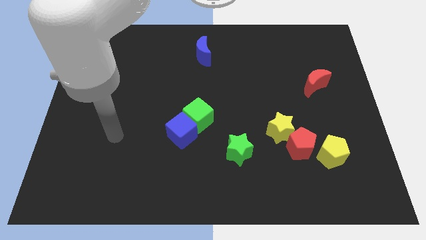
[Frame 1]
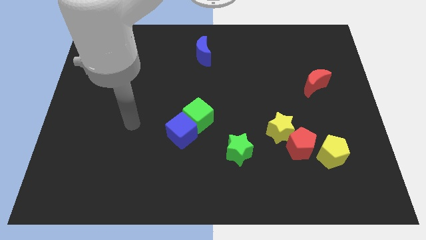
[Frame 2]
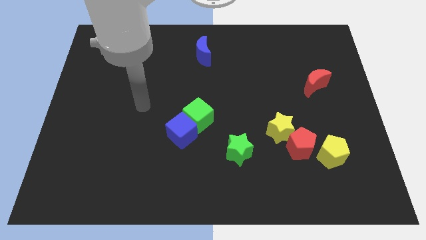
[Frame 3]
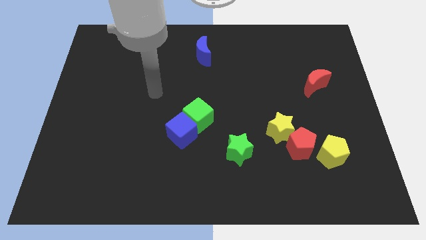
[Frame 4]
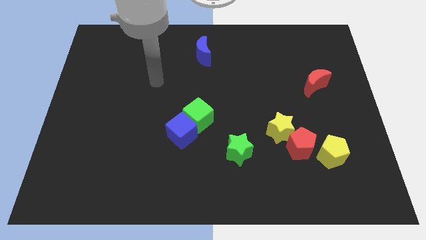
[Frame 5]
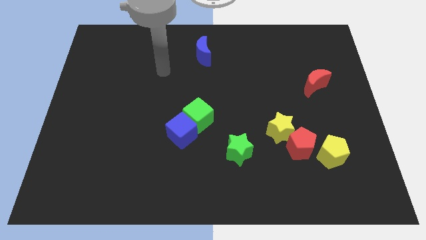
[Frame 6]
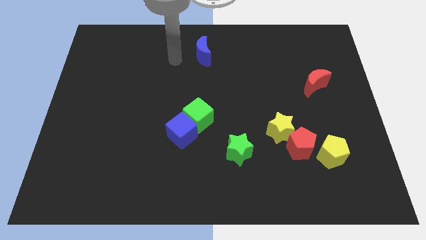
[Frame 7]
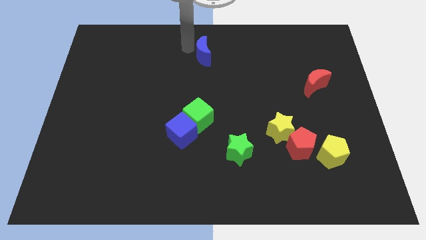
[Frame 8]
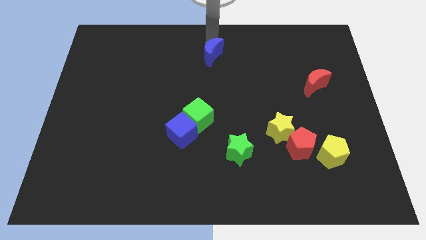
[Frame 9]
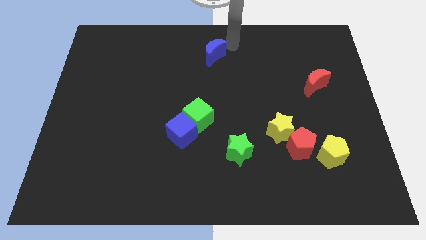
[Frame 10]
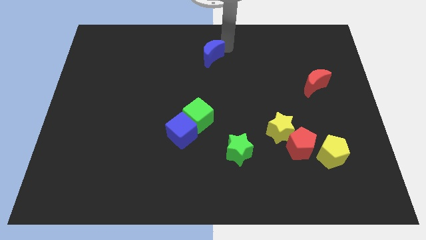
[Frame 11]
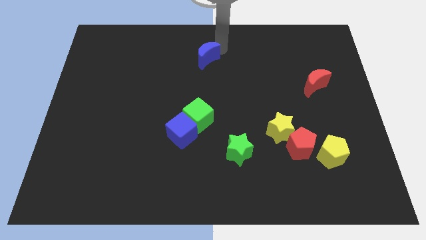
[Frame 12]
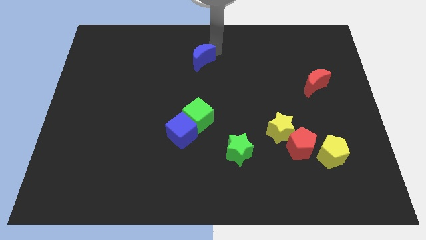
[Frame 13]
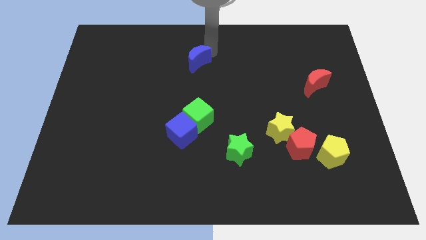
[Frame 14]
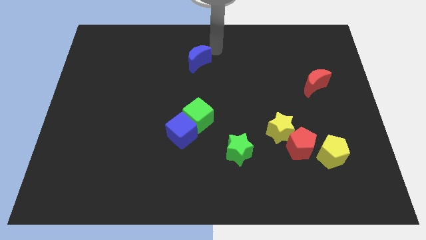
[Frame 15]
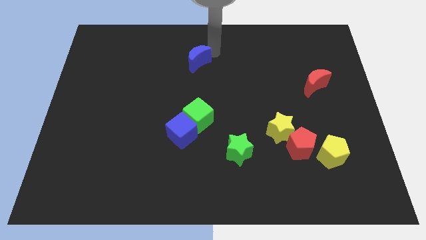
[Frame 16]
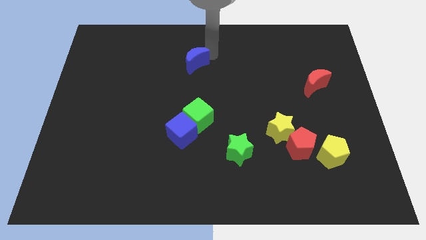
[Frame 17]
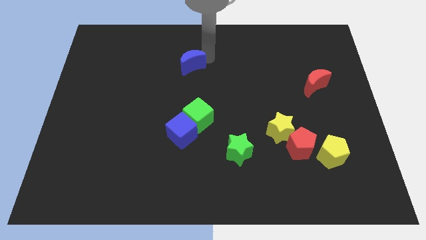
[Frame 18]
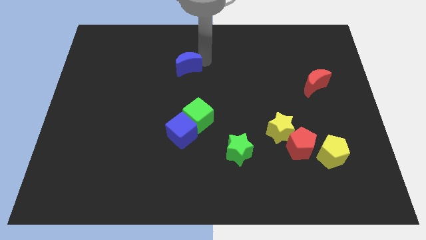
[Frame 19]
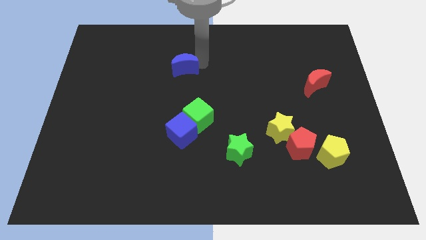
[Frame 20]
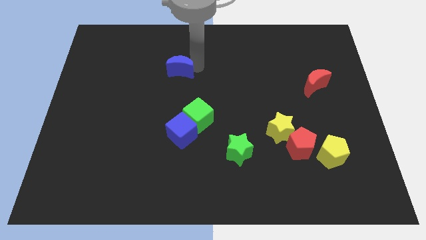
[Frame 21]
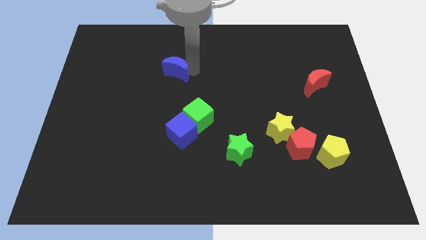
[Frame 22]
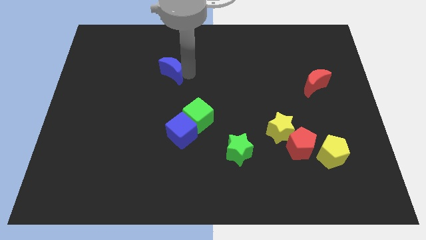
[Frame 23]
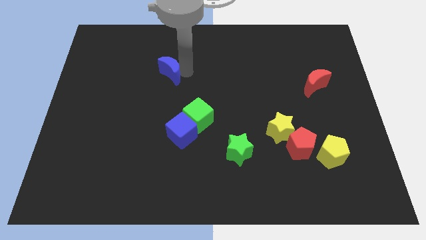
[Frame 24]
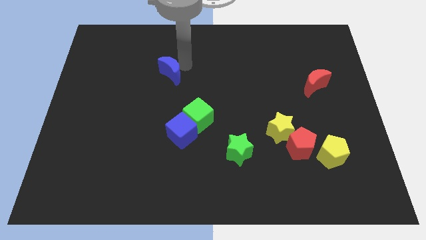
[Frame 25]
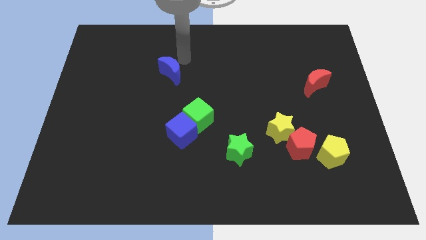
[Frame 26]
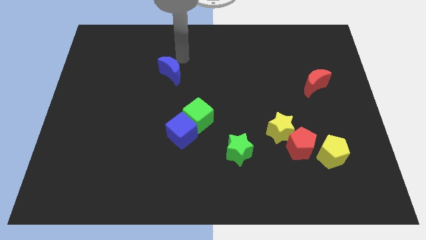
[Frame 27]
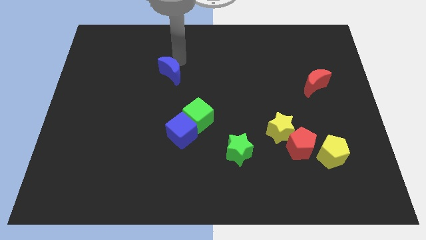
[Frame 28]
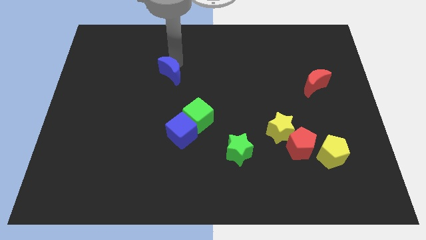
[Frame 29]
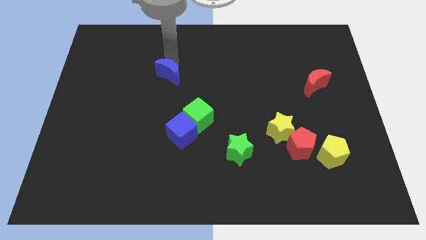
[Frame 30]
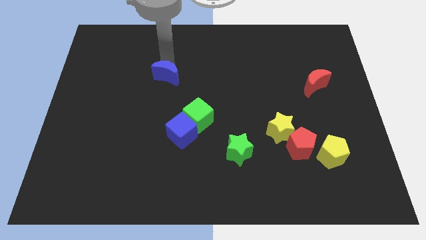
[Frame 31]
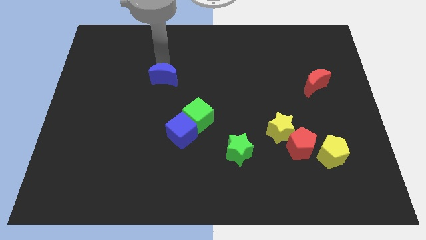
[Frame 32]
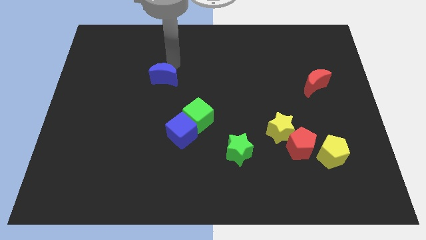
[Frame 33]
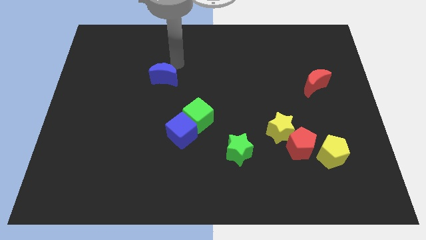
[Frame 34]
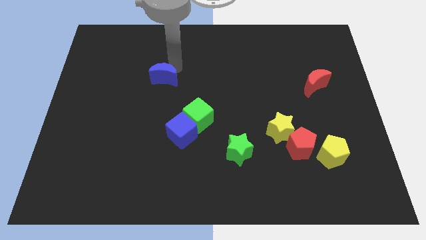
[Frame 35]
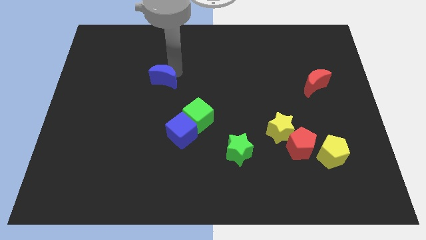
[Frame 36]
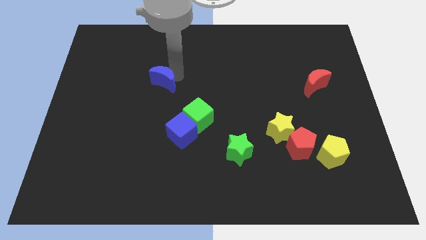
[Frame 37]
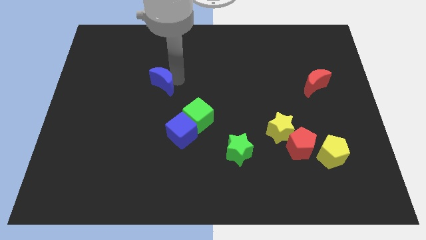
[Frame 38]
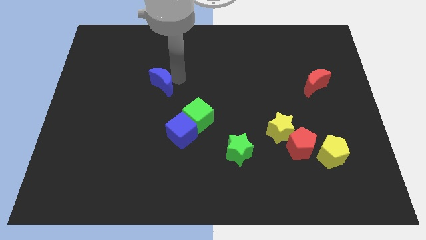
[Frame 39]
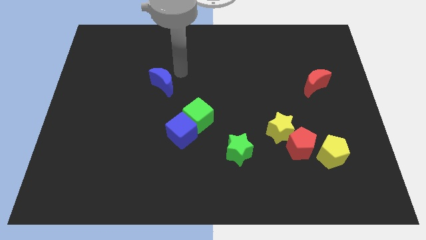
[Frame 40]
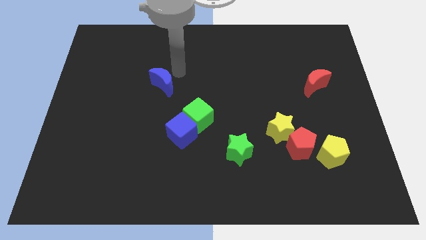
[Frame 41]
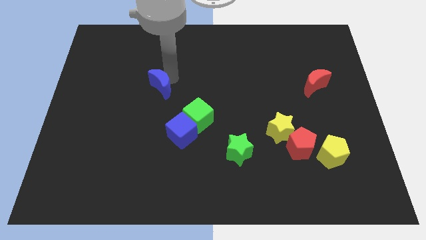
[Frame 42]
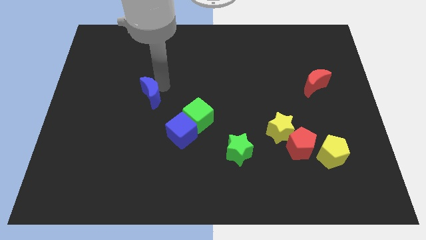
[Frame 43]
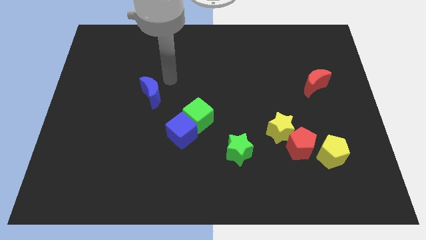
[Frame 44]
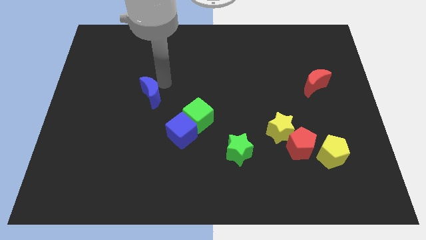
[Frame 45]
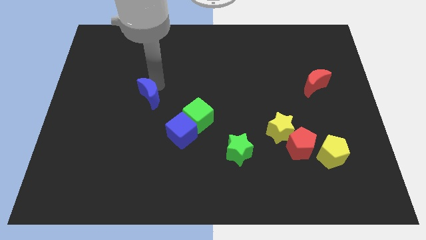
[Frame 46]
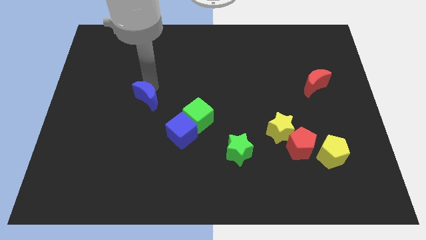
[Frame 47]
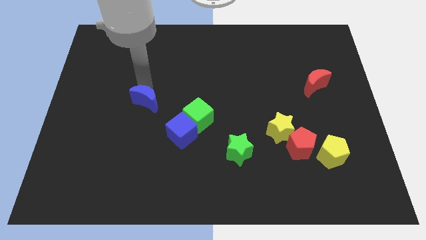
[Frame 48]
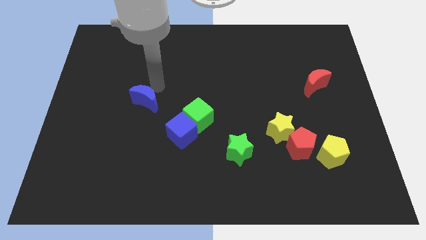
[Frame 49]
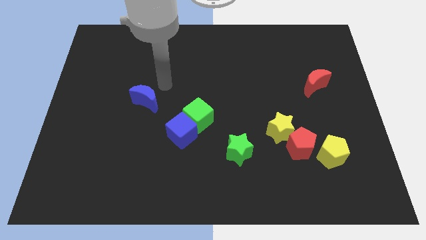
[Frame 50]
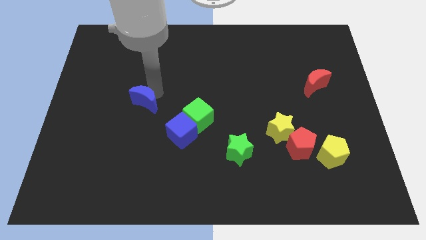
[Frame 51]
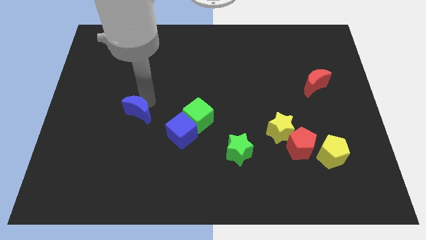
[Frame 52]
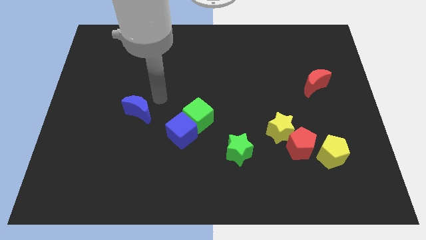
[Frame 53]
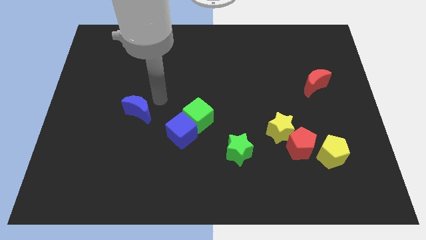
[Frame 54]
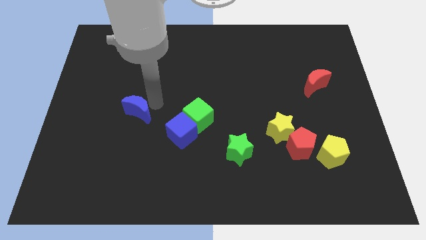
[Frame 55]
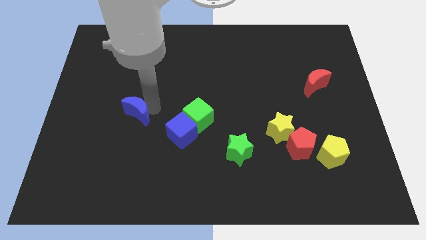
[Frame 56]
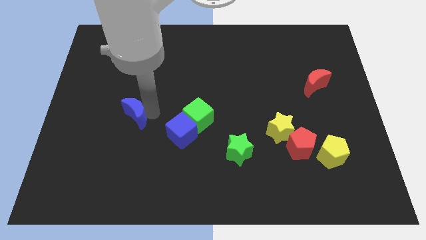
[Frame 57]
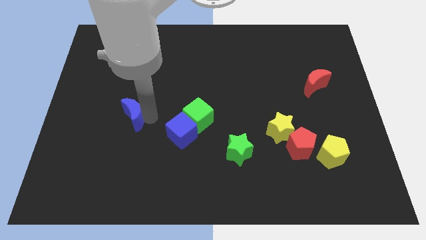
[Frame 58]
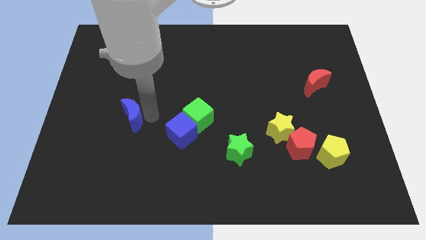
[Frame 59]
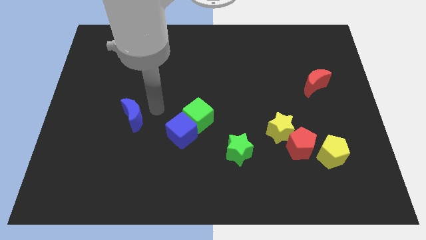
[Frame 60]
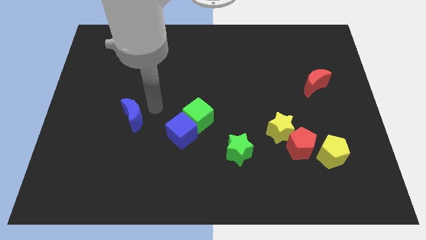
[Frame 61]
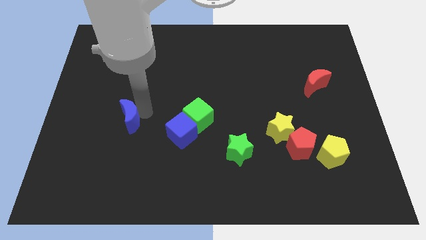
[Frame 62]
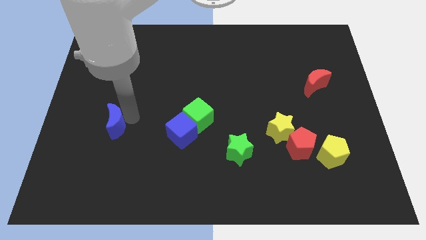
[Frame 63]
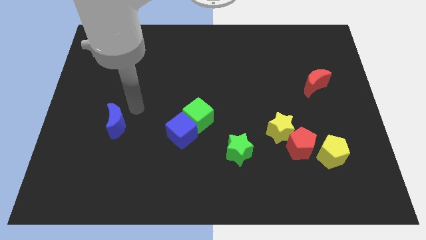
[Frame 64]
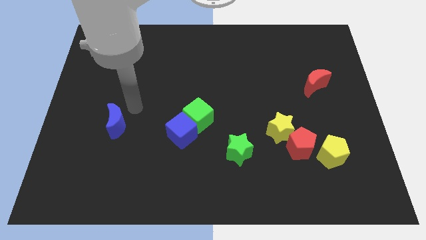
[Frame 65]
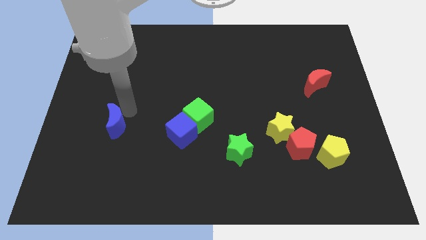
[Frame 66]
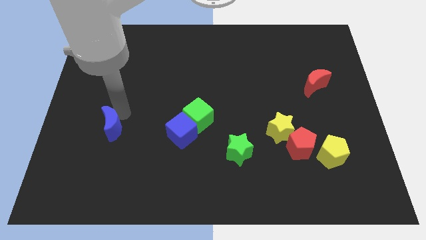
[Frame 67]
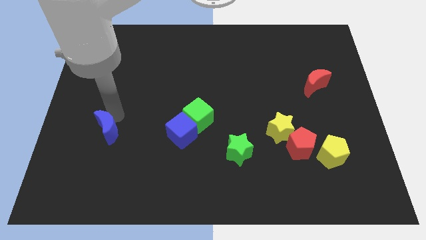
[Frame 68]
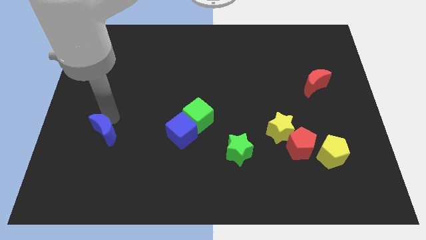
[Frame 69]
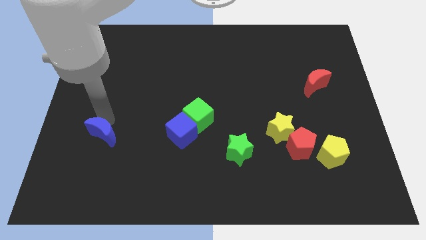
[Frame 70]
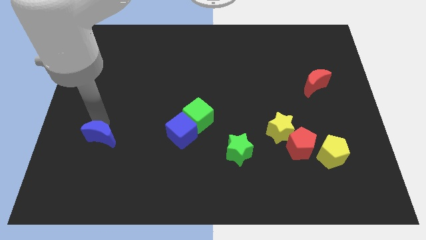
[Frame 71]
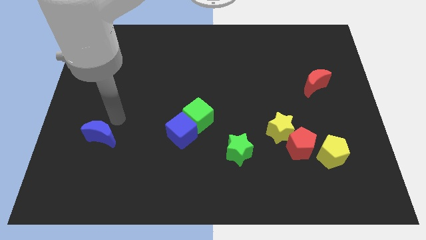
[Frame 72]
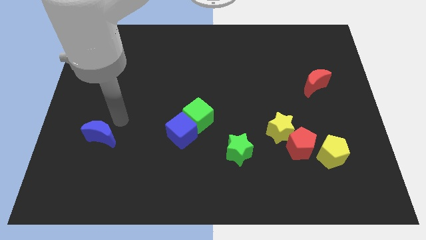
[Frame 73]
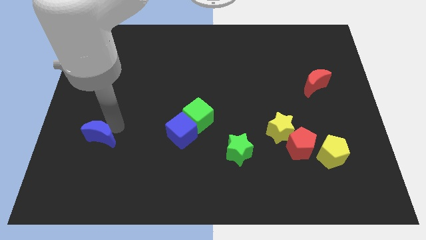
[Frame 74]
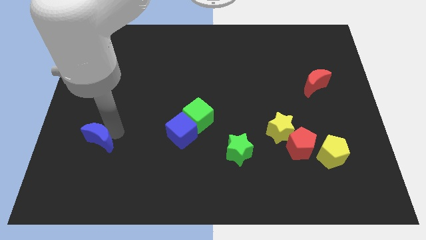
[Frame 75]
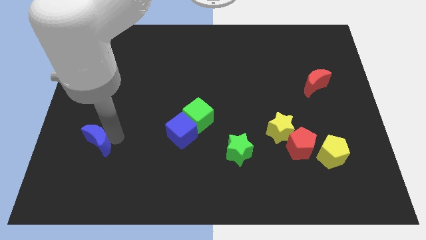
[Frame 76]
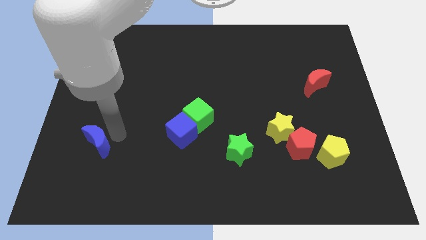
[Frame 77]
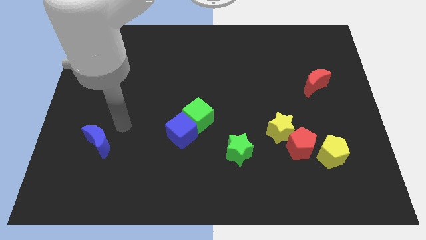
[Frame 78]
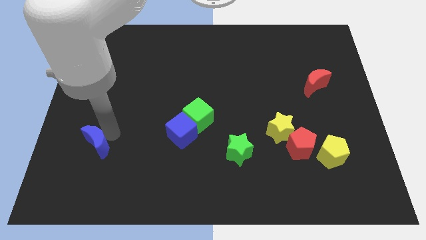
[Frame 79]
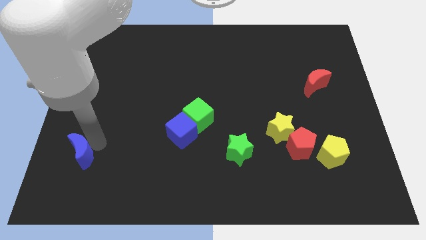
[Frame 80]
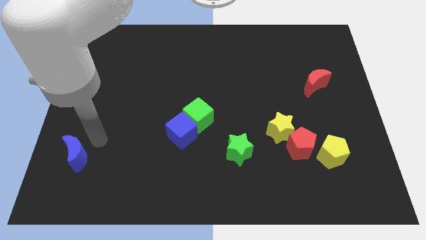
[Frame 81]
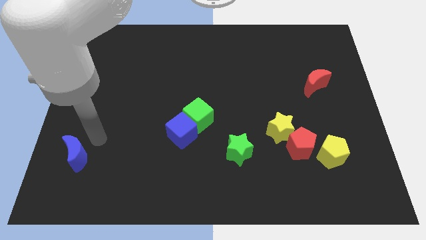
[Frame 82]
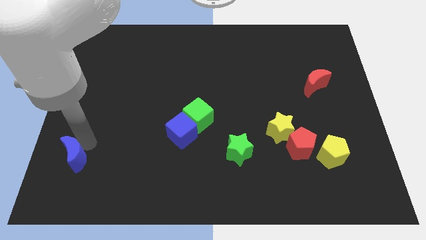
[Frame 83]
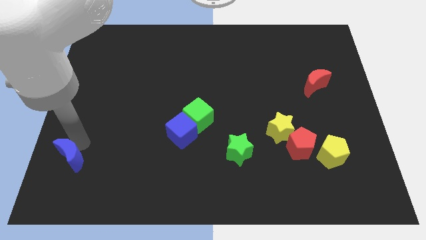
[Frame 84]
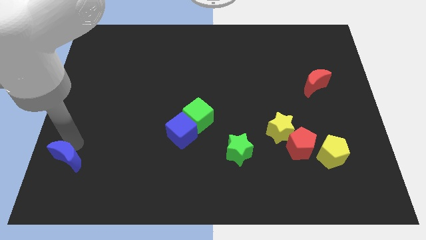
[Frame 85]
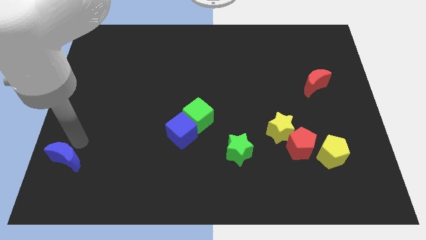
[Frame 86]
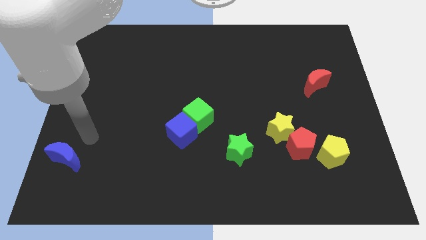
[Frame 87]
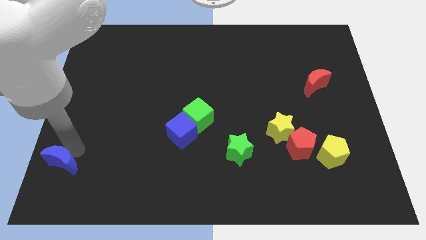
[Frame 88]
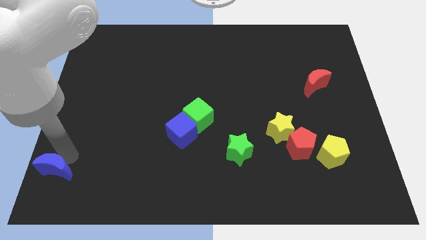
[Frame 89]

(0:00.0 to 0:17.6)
push the blue moon to the bottom left corner
